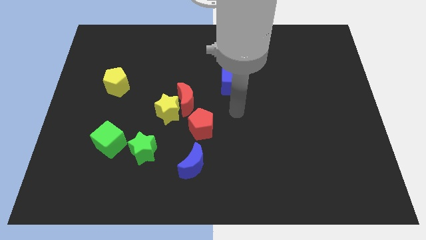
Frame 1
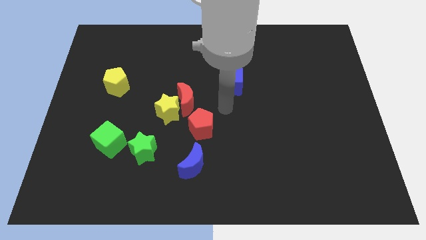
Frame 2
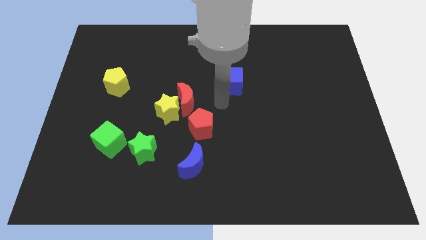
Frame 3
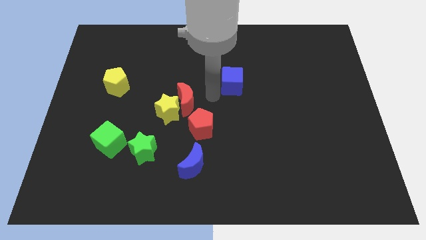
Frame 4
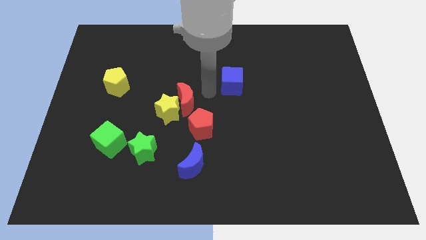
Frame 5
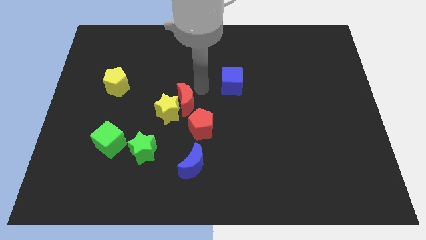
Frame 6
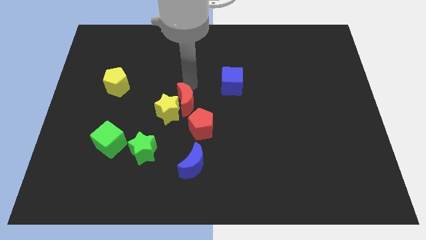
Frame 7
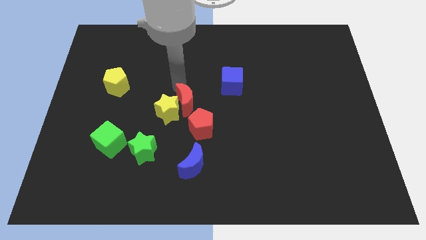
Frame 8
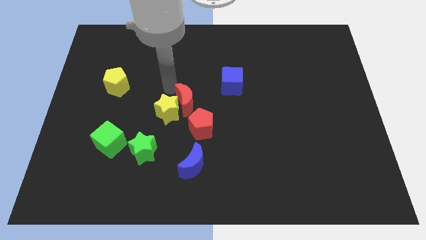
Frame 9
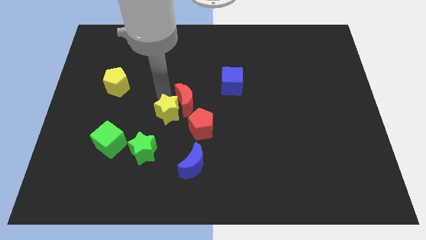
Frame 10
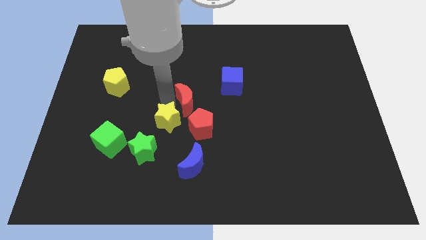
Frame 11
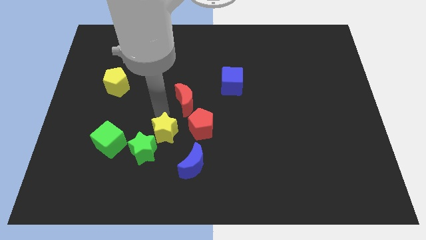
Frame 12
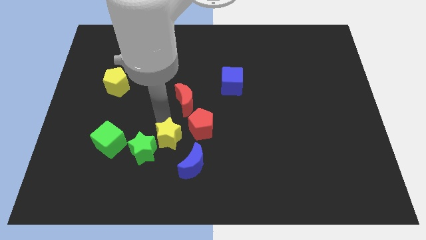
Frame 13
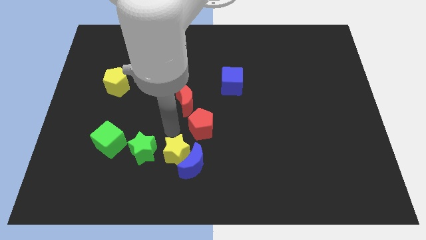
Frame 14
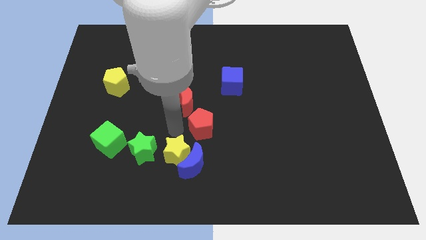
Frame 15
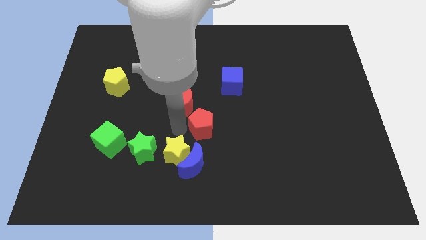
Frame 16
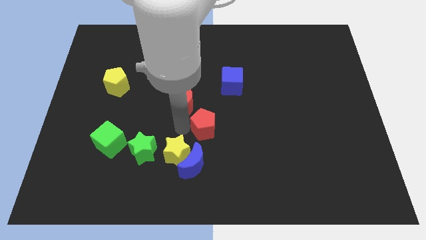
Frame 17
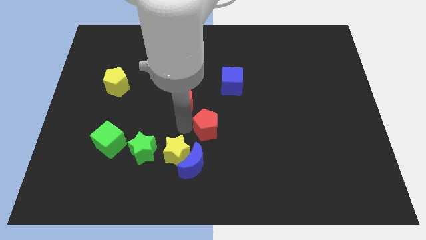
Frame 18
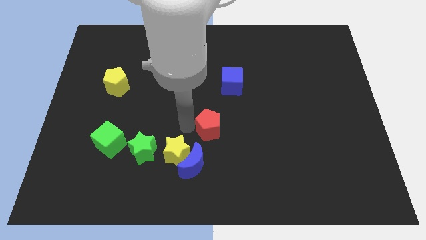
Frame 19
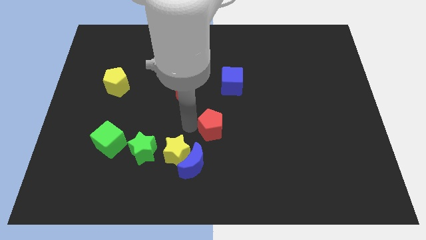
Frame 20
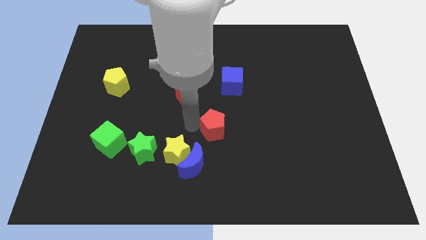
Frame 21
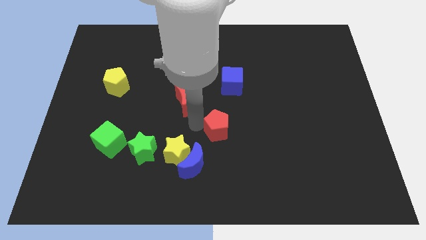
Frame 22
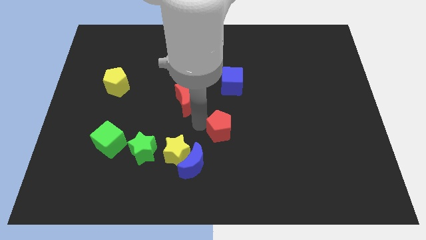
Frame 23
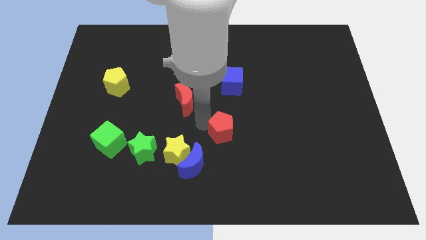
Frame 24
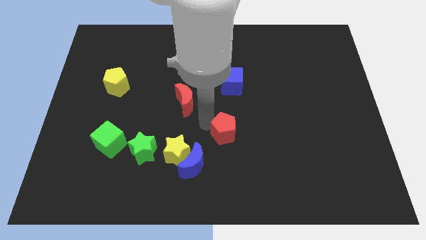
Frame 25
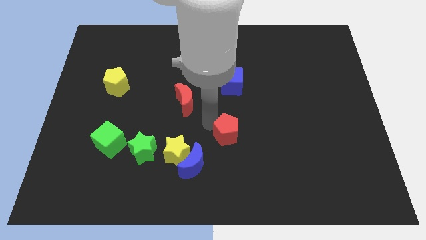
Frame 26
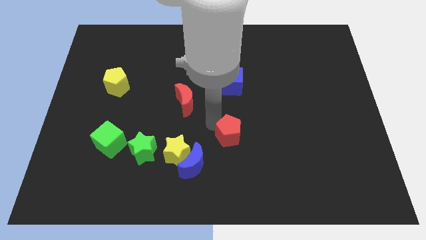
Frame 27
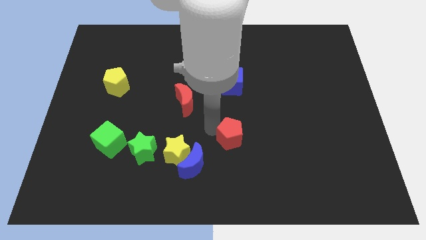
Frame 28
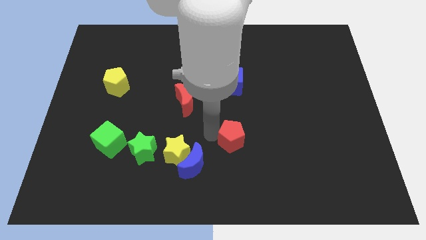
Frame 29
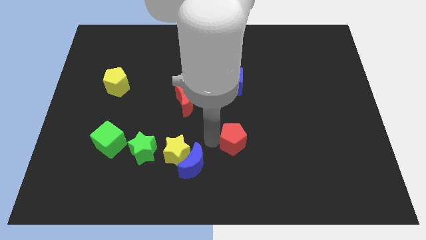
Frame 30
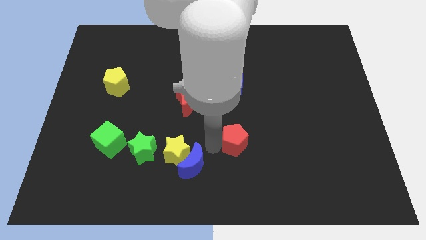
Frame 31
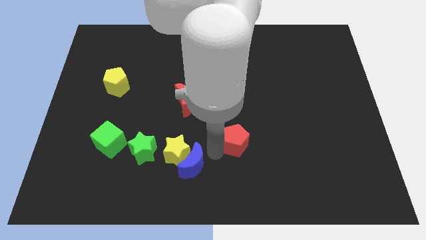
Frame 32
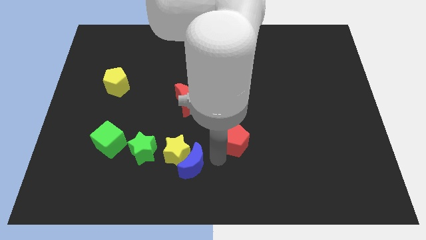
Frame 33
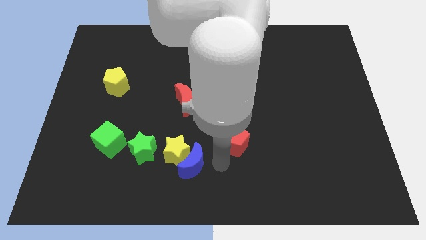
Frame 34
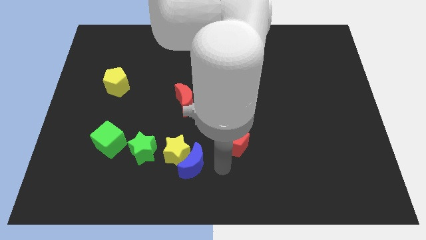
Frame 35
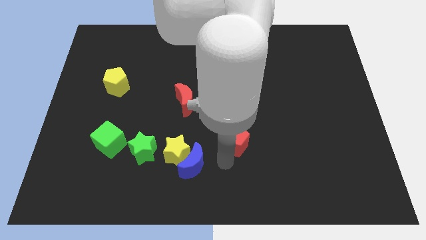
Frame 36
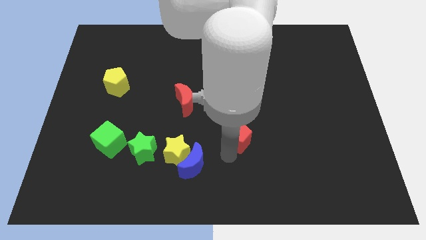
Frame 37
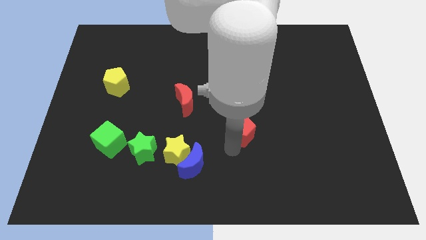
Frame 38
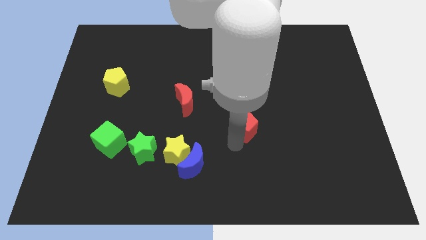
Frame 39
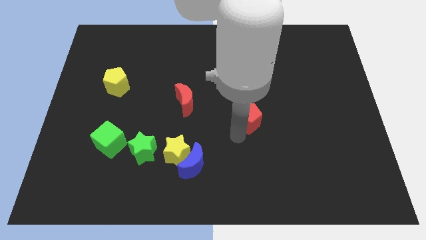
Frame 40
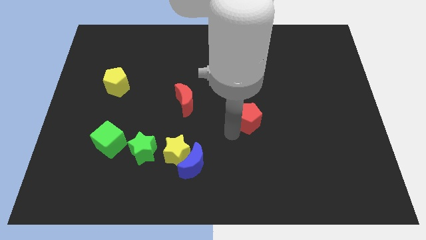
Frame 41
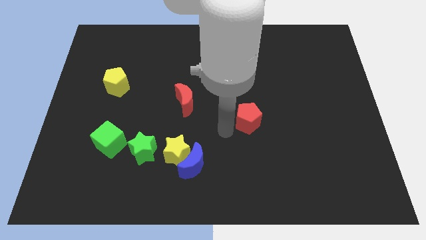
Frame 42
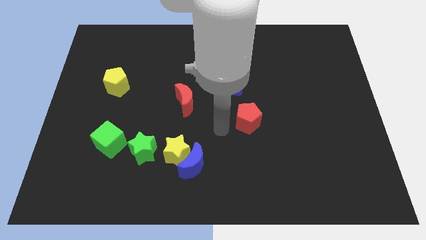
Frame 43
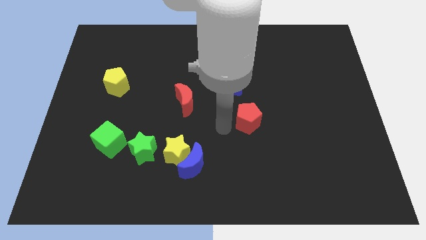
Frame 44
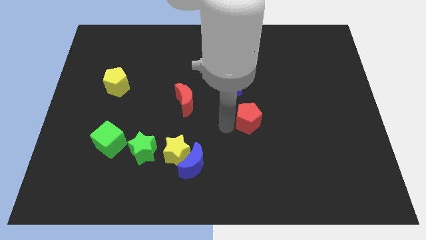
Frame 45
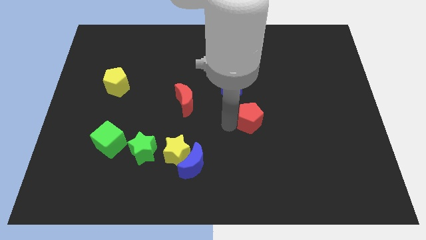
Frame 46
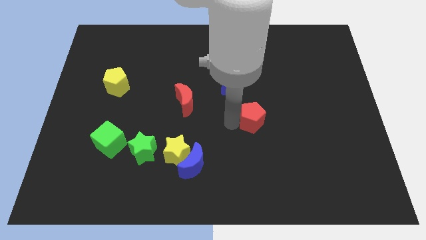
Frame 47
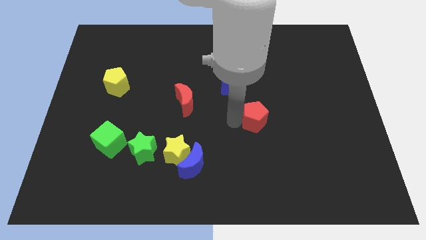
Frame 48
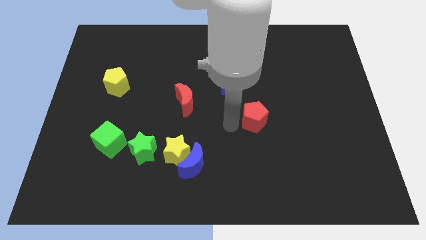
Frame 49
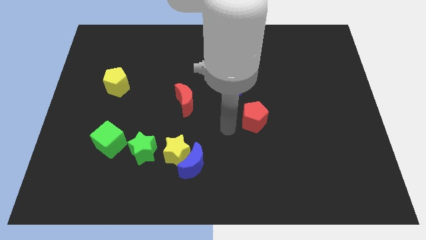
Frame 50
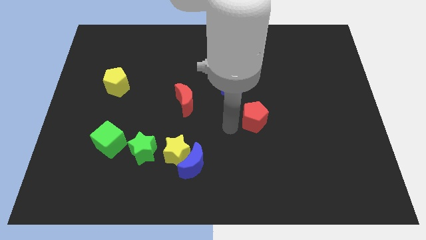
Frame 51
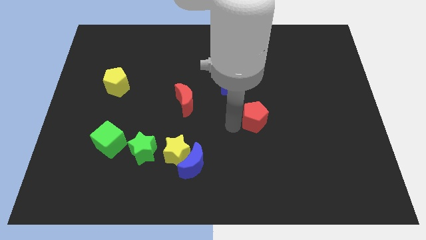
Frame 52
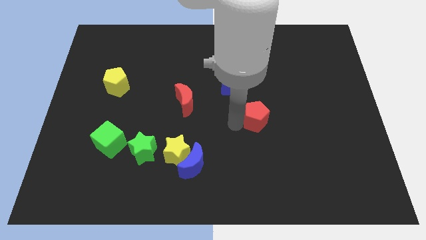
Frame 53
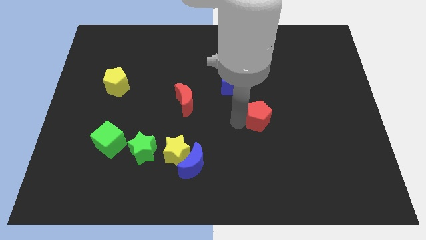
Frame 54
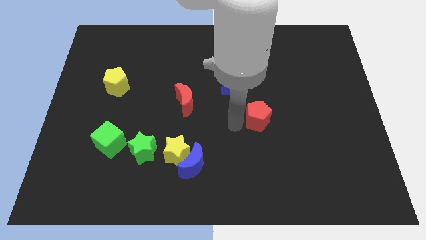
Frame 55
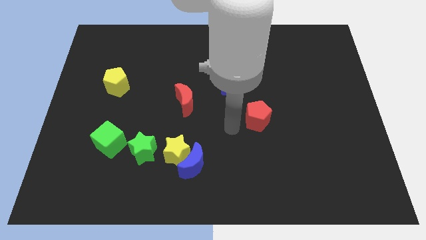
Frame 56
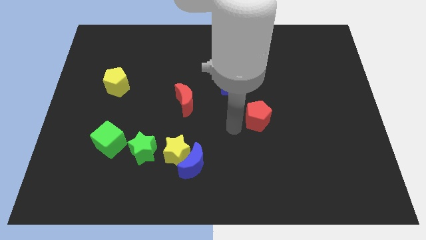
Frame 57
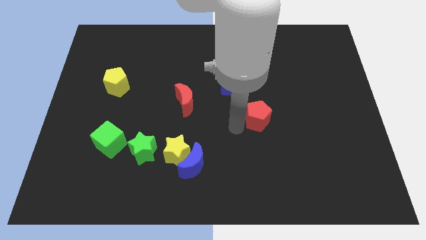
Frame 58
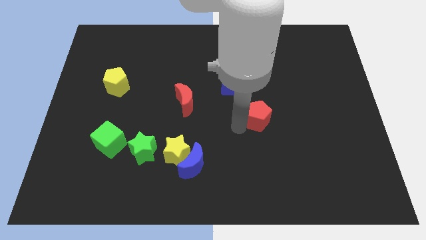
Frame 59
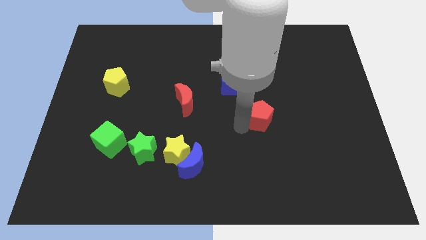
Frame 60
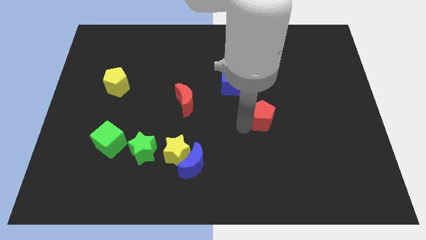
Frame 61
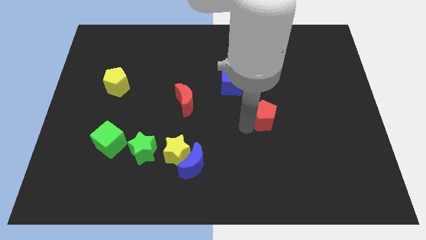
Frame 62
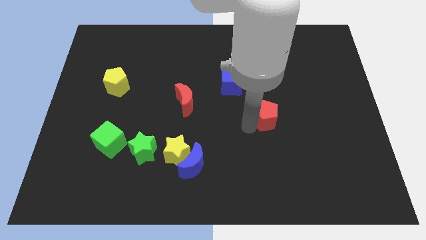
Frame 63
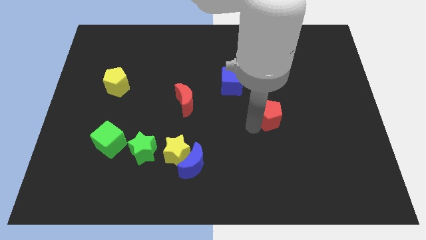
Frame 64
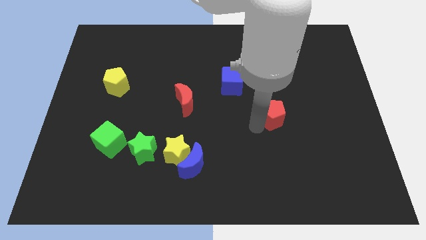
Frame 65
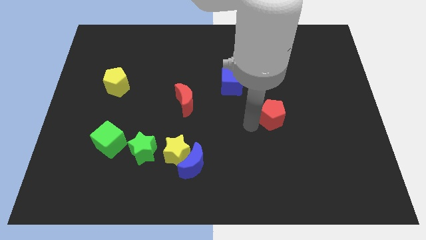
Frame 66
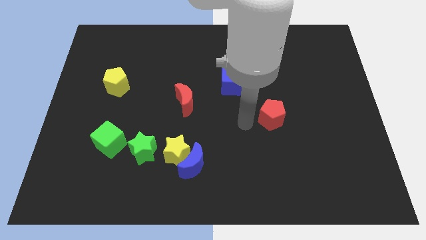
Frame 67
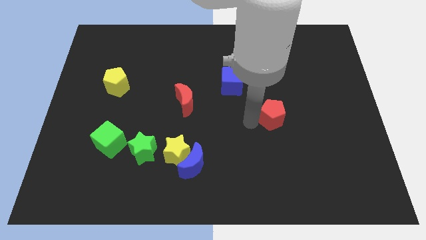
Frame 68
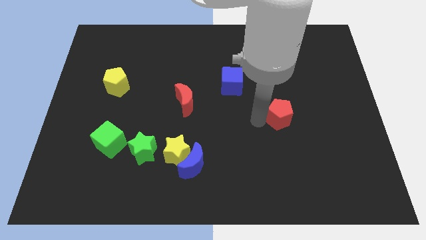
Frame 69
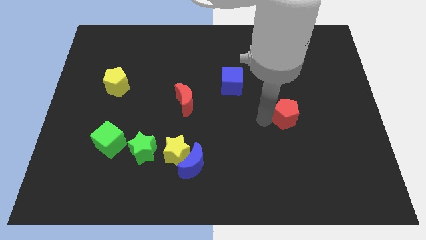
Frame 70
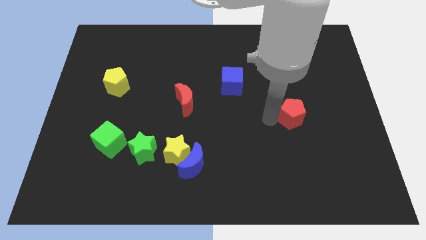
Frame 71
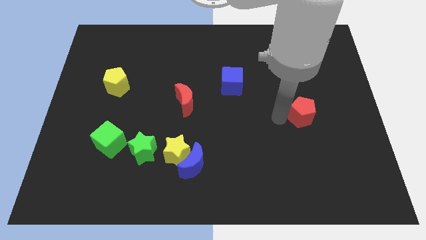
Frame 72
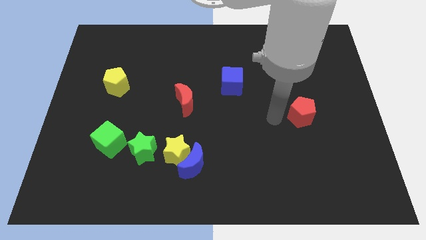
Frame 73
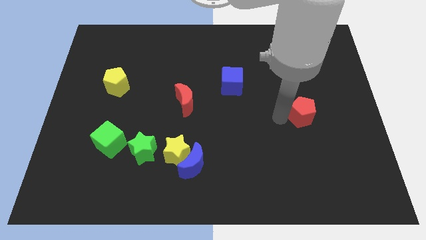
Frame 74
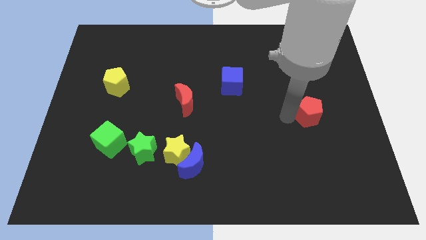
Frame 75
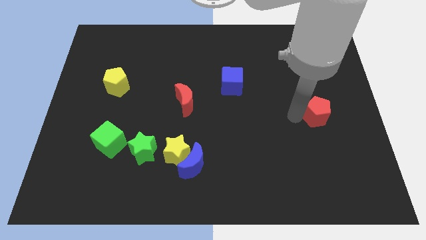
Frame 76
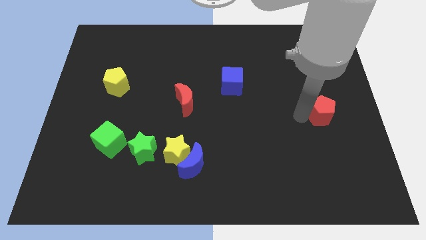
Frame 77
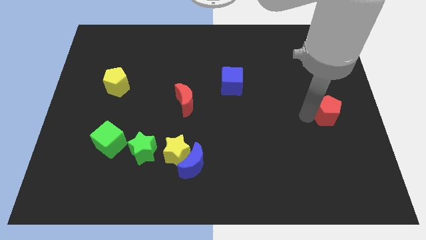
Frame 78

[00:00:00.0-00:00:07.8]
slide the red pentagon to the right side
